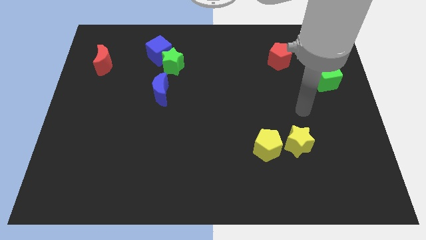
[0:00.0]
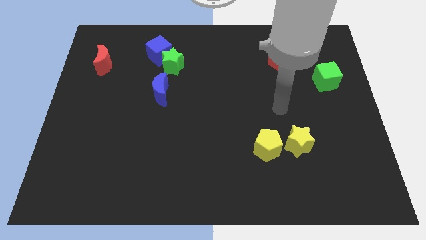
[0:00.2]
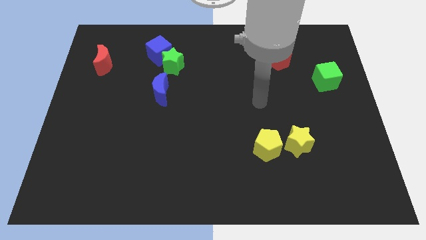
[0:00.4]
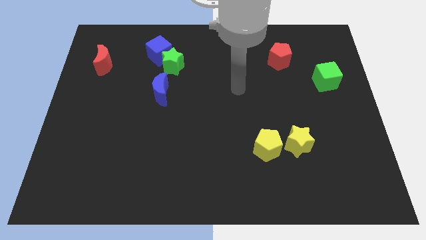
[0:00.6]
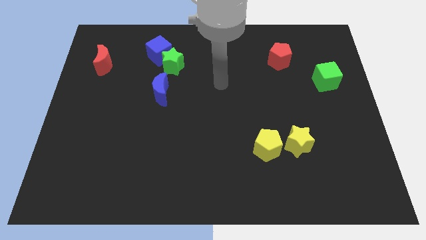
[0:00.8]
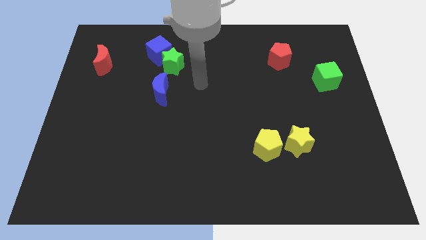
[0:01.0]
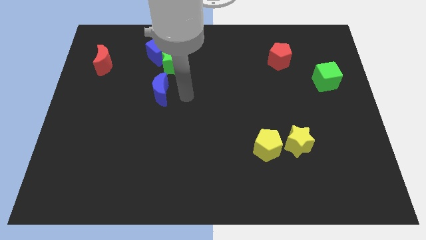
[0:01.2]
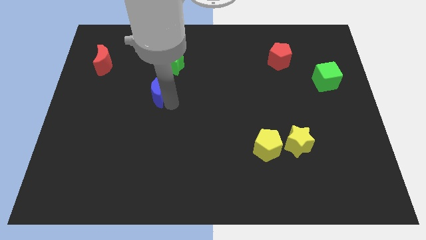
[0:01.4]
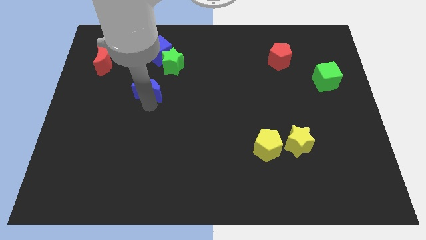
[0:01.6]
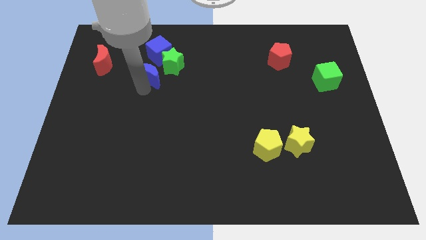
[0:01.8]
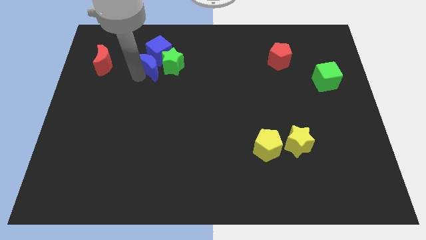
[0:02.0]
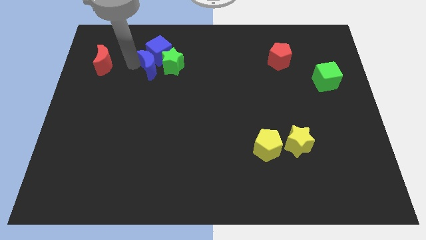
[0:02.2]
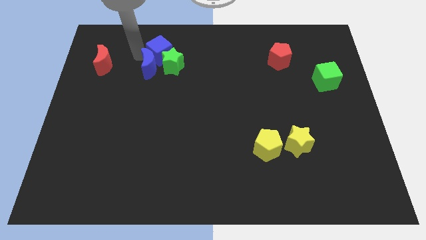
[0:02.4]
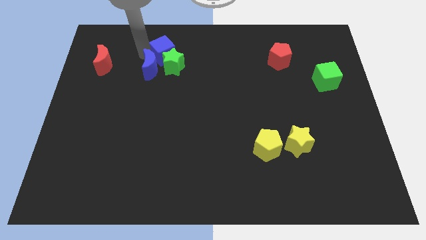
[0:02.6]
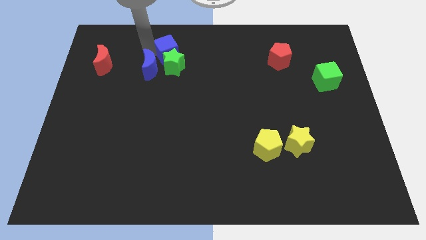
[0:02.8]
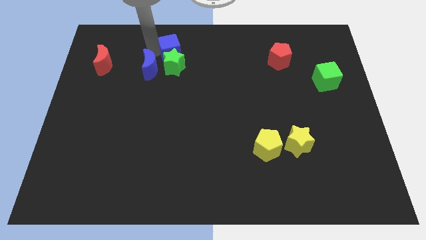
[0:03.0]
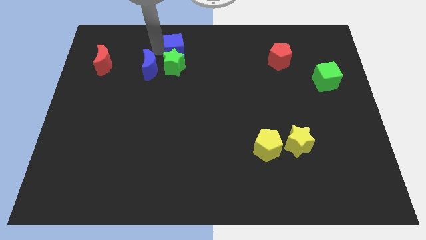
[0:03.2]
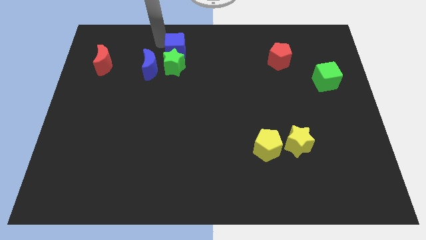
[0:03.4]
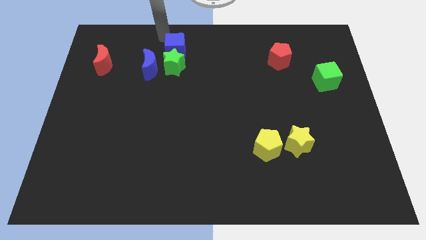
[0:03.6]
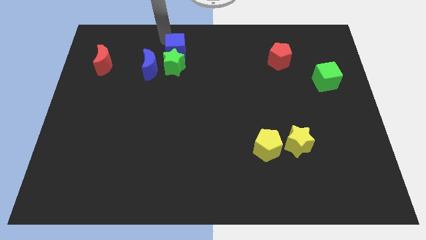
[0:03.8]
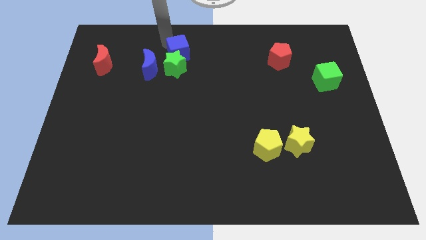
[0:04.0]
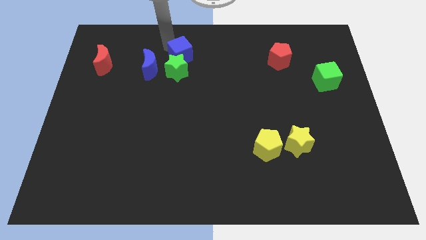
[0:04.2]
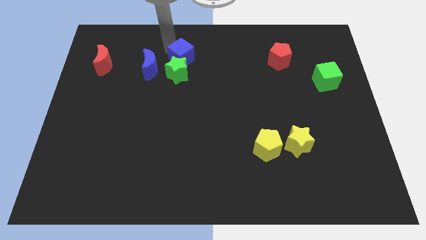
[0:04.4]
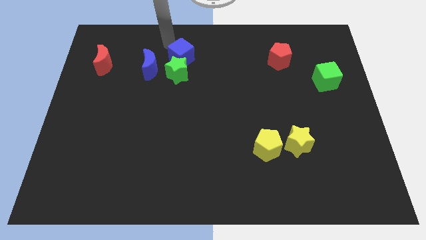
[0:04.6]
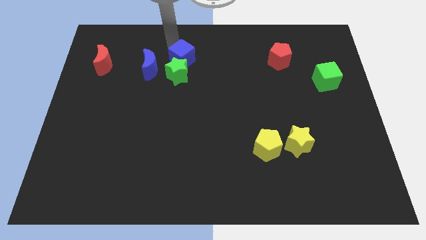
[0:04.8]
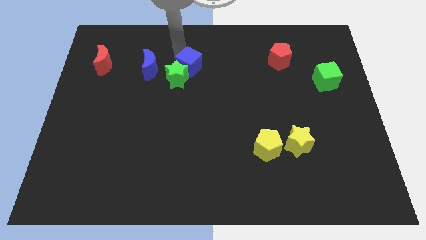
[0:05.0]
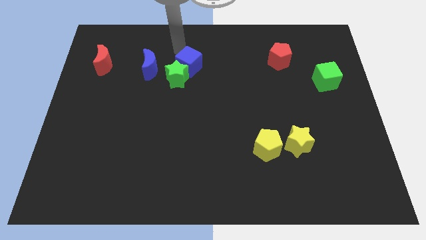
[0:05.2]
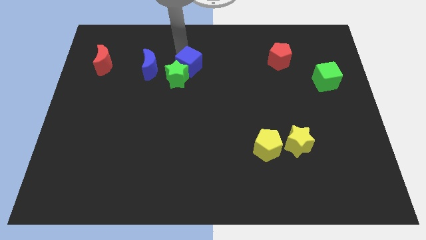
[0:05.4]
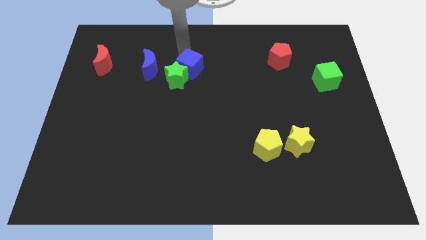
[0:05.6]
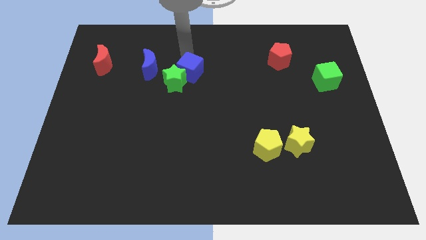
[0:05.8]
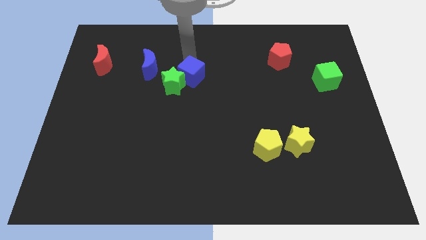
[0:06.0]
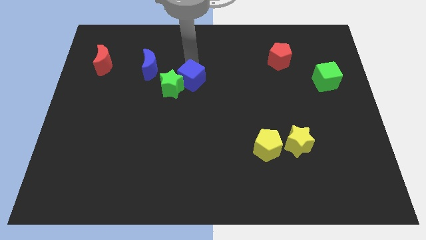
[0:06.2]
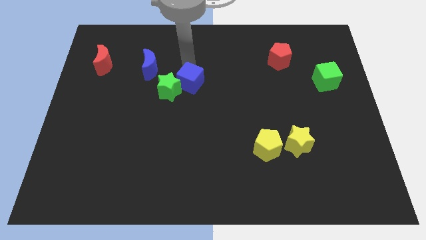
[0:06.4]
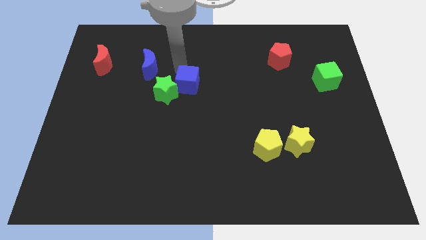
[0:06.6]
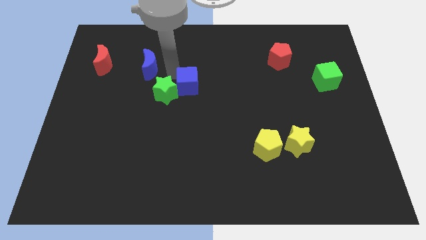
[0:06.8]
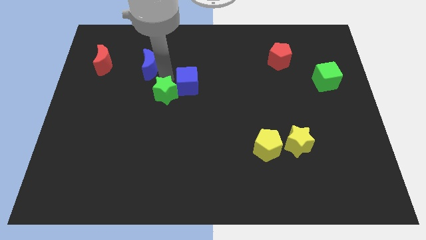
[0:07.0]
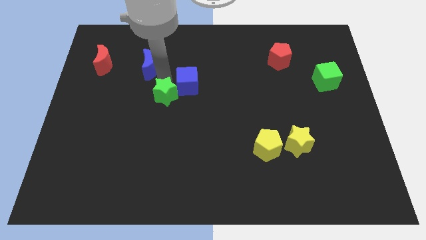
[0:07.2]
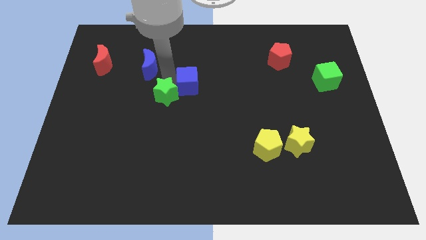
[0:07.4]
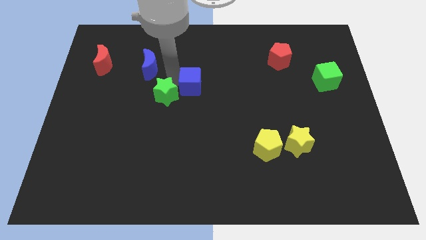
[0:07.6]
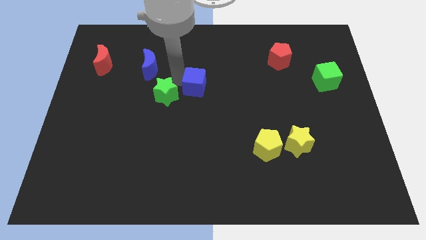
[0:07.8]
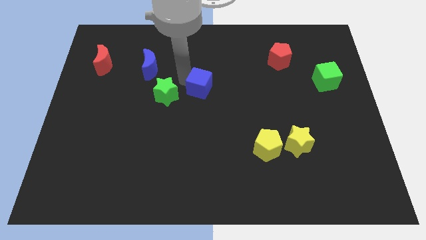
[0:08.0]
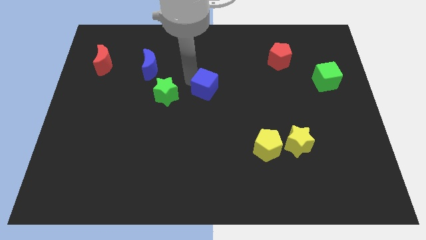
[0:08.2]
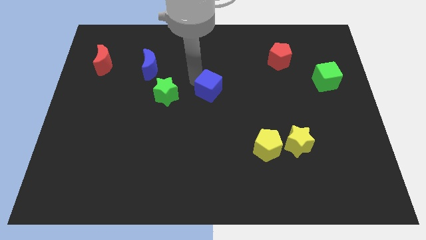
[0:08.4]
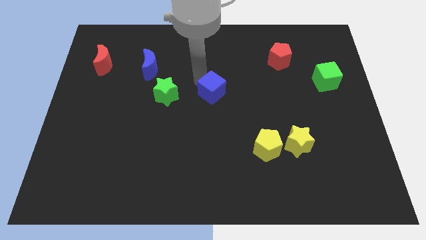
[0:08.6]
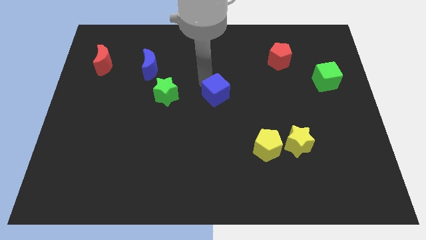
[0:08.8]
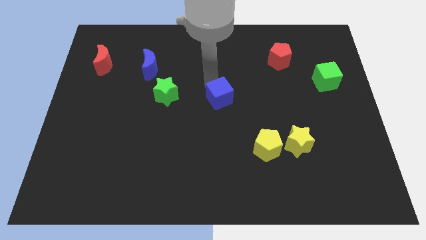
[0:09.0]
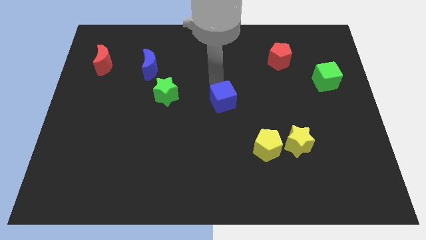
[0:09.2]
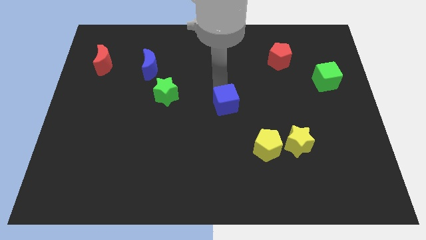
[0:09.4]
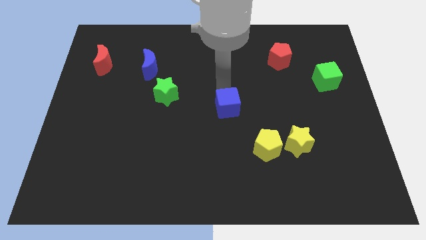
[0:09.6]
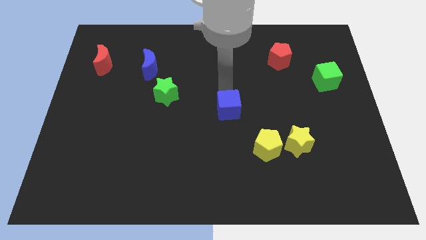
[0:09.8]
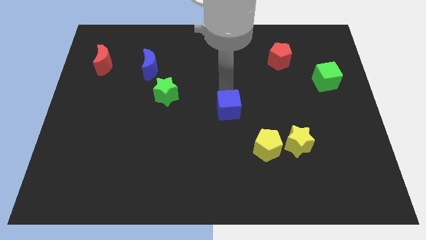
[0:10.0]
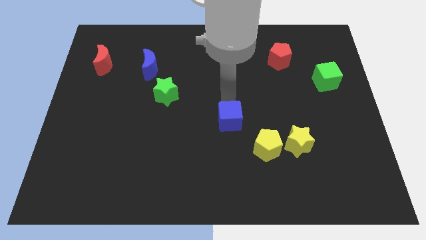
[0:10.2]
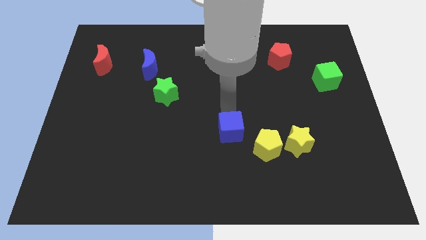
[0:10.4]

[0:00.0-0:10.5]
slide the blue cube to the left side of the yellow star

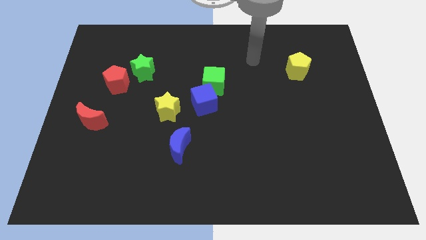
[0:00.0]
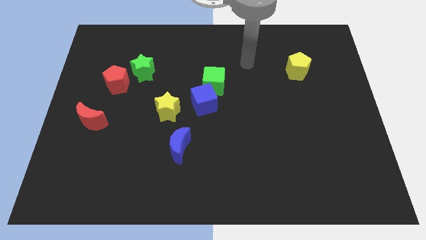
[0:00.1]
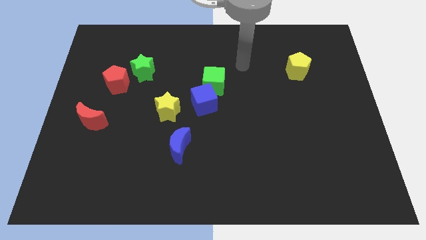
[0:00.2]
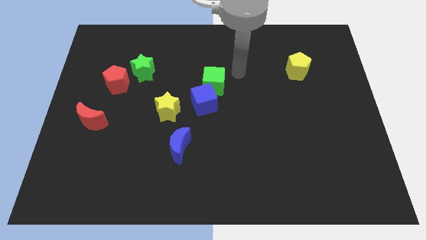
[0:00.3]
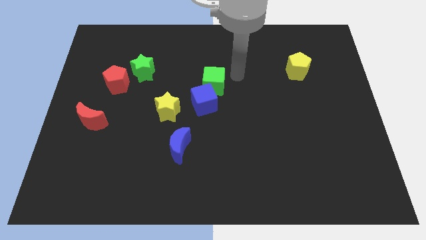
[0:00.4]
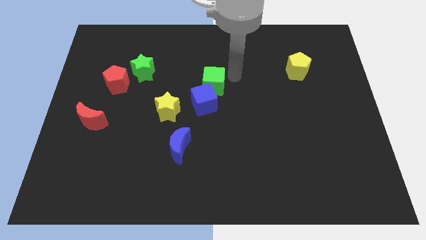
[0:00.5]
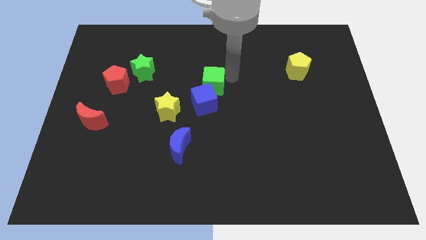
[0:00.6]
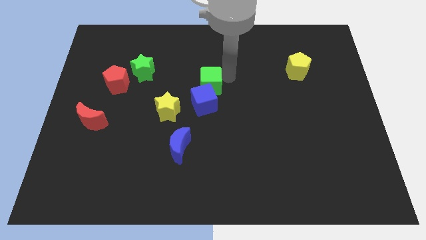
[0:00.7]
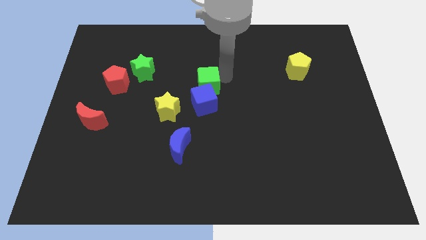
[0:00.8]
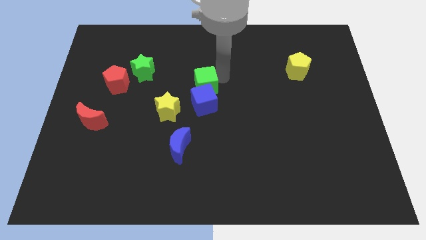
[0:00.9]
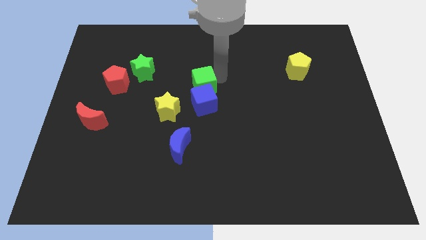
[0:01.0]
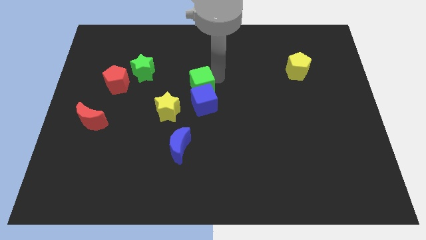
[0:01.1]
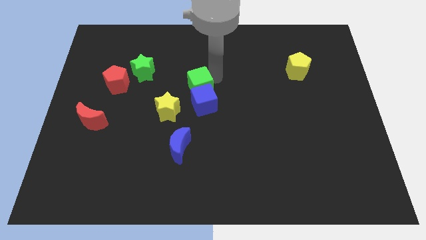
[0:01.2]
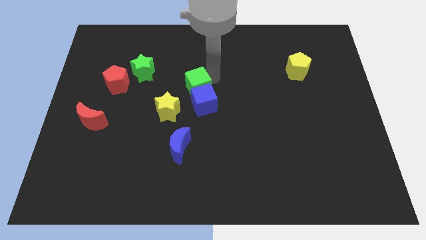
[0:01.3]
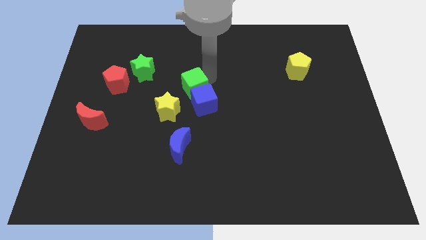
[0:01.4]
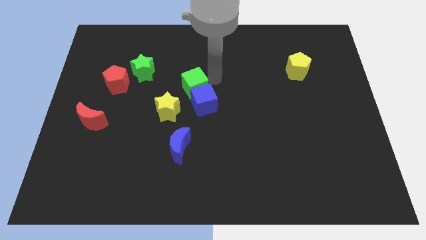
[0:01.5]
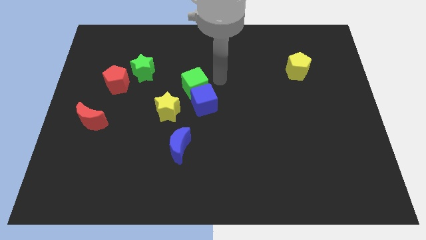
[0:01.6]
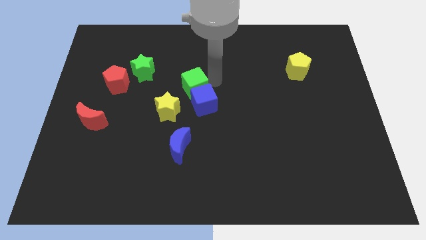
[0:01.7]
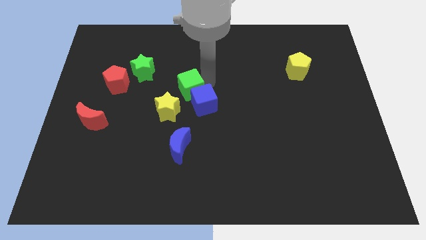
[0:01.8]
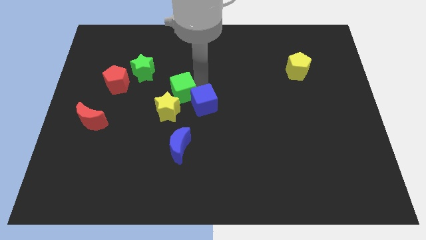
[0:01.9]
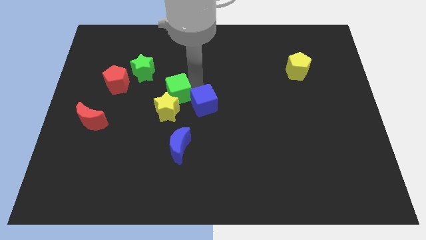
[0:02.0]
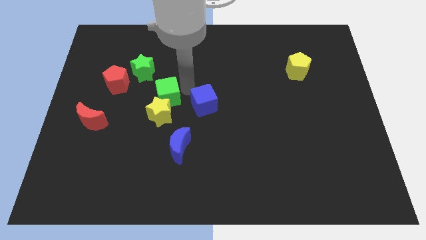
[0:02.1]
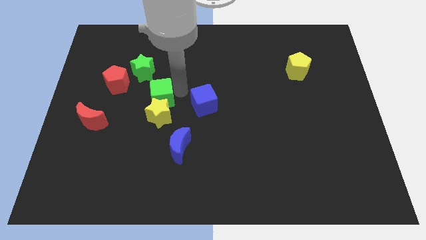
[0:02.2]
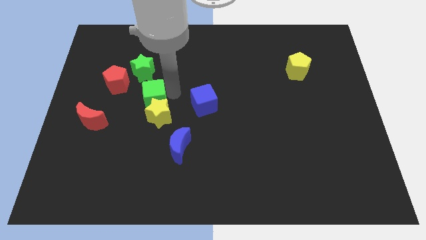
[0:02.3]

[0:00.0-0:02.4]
put the green cube below the green star
